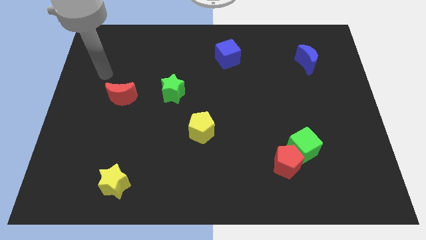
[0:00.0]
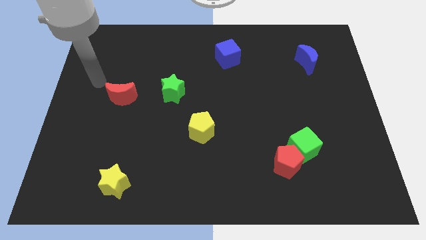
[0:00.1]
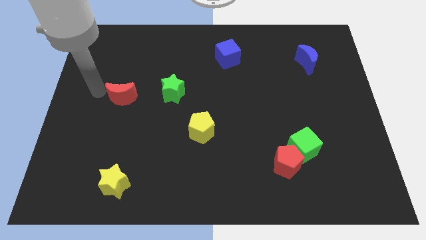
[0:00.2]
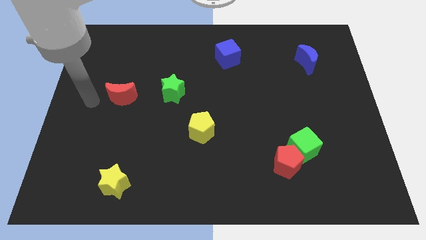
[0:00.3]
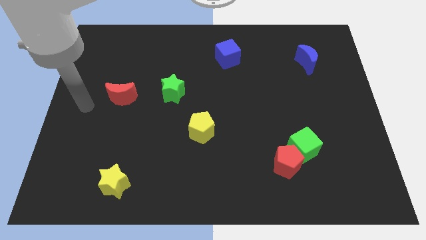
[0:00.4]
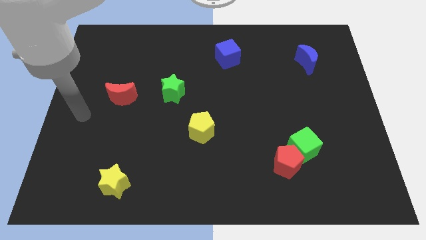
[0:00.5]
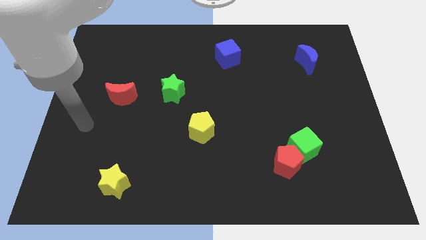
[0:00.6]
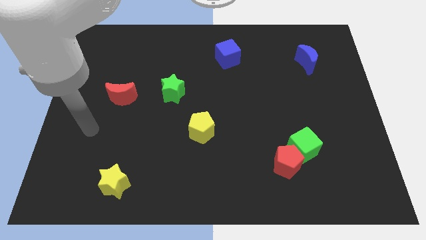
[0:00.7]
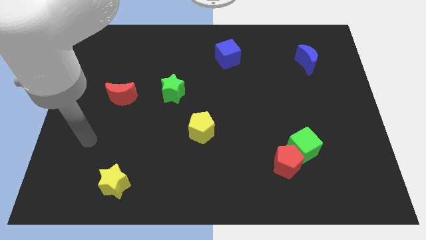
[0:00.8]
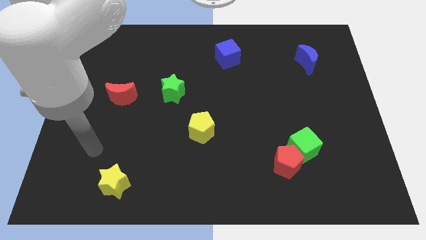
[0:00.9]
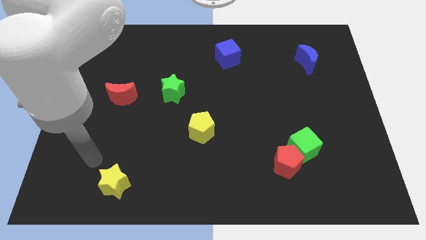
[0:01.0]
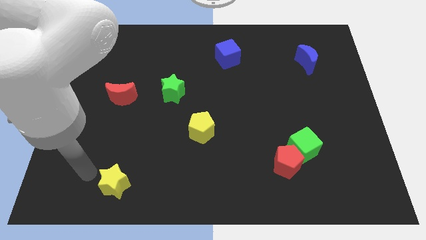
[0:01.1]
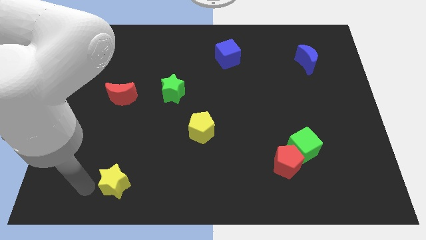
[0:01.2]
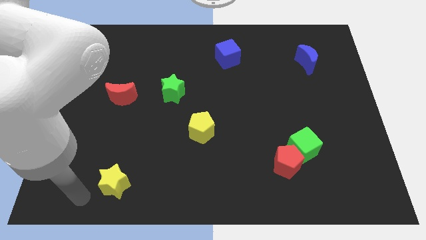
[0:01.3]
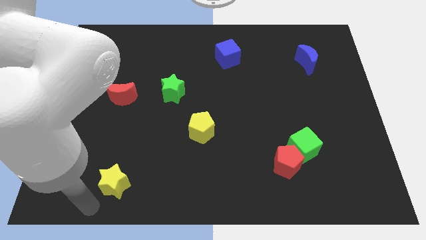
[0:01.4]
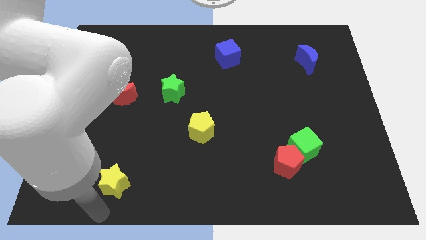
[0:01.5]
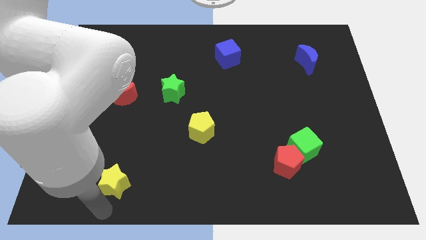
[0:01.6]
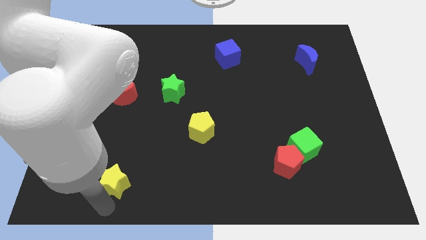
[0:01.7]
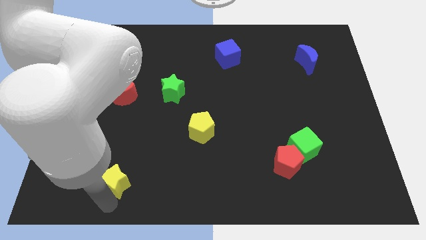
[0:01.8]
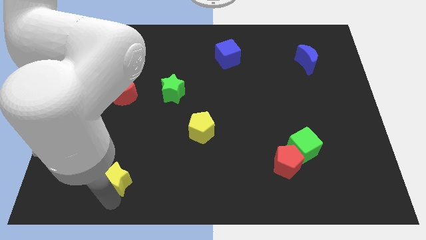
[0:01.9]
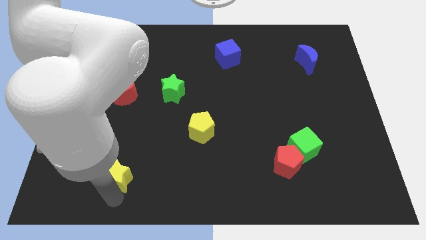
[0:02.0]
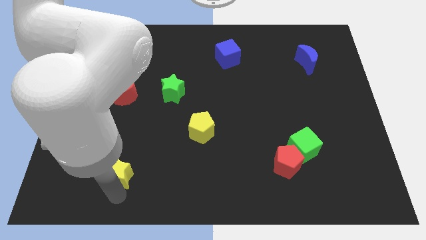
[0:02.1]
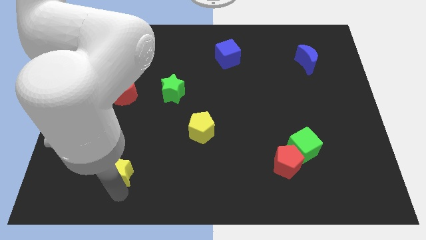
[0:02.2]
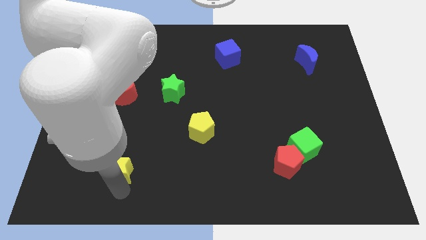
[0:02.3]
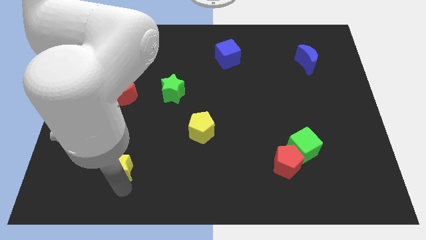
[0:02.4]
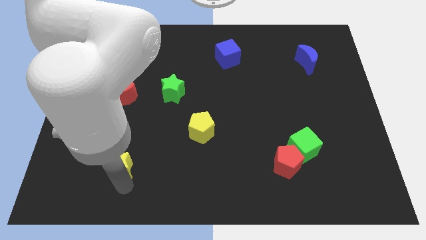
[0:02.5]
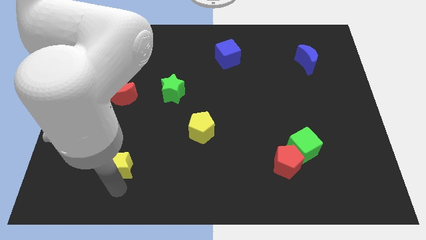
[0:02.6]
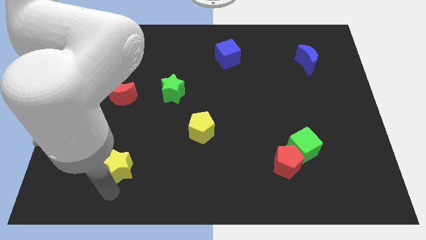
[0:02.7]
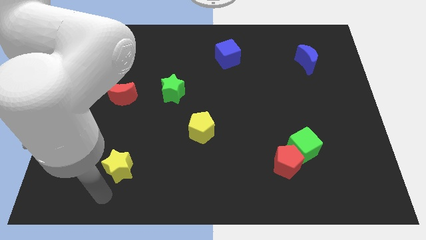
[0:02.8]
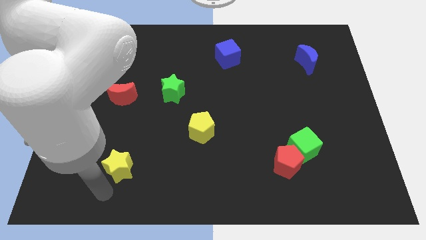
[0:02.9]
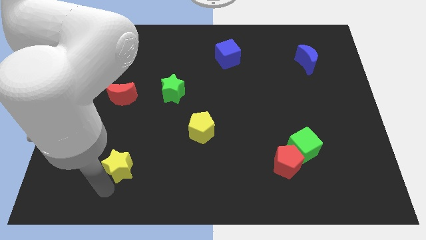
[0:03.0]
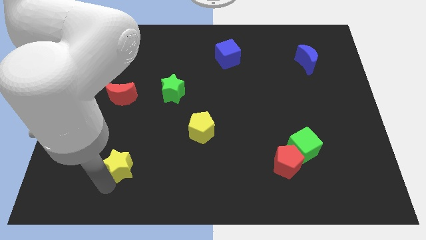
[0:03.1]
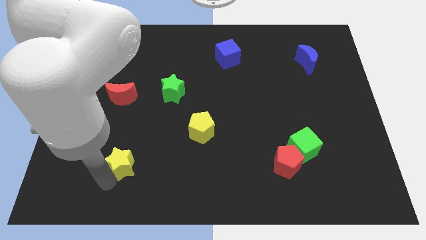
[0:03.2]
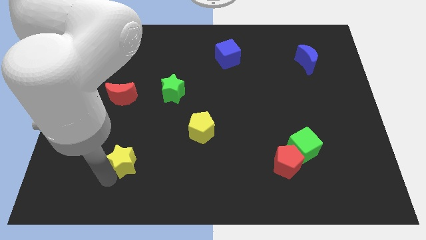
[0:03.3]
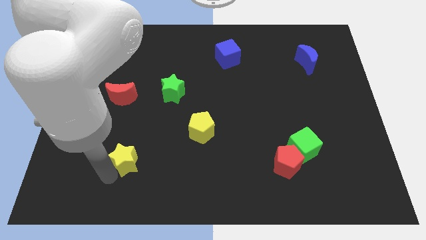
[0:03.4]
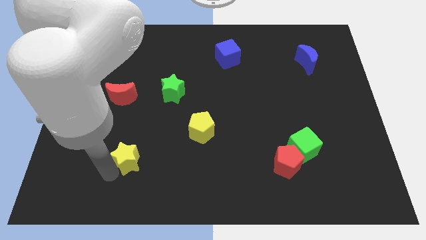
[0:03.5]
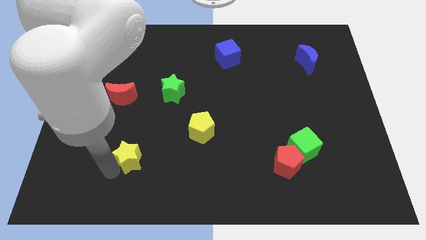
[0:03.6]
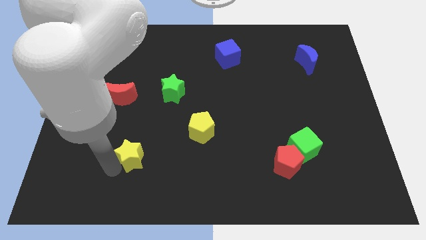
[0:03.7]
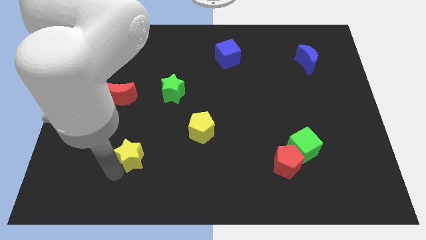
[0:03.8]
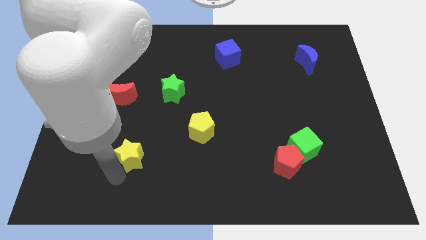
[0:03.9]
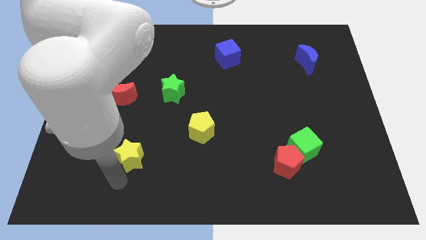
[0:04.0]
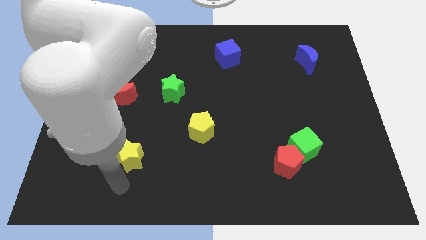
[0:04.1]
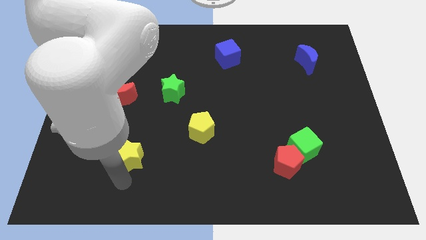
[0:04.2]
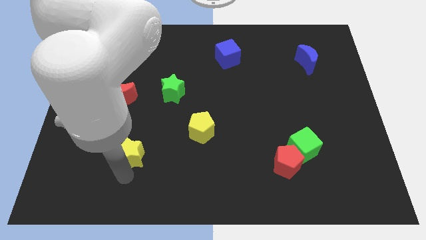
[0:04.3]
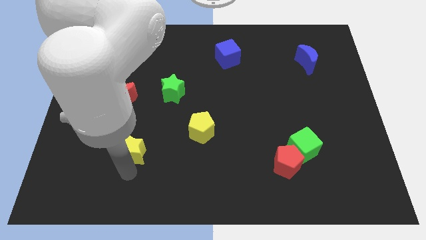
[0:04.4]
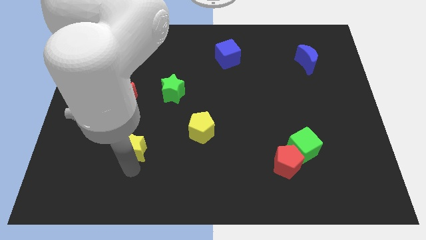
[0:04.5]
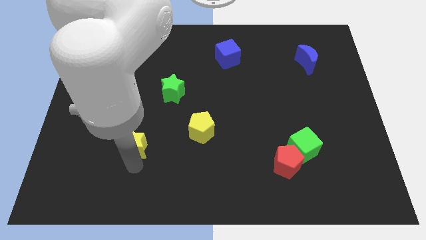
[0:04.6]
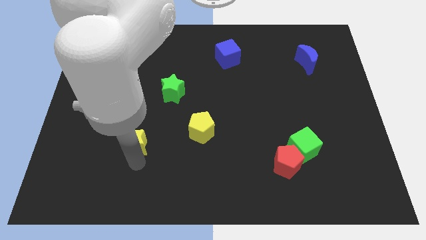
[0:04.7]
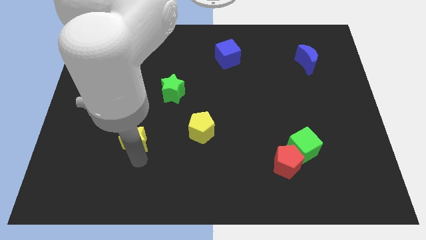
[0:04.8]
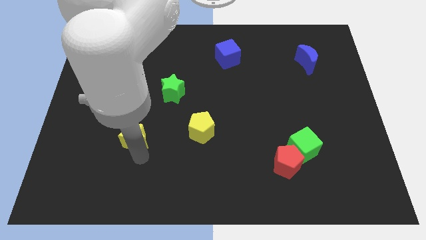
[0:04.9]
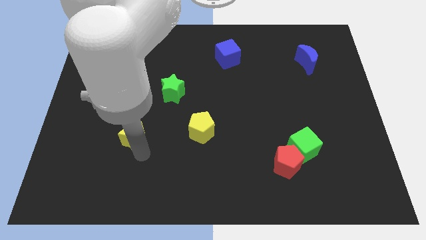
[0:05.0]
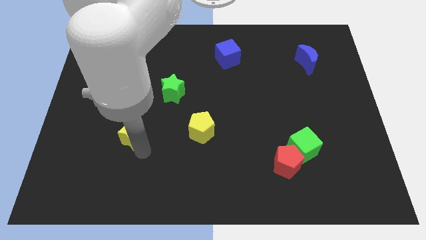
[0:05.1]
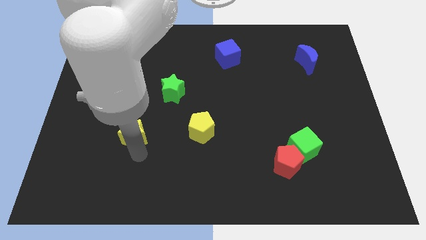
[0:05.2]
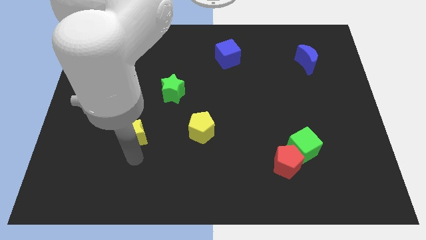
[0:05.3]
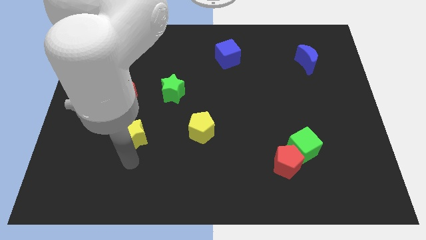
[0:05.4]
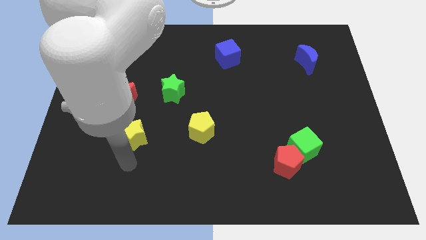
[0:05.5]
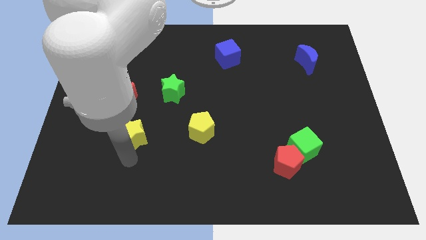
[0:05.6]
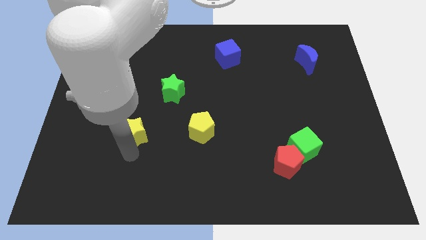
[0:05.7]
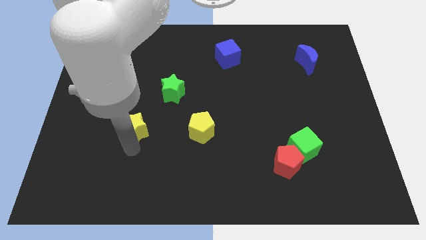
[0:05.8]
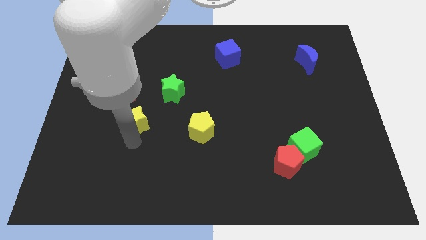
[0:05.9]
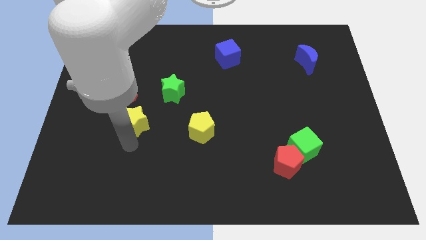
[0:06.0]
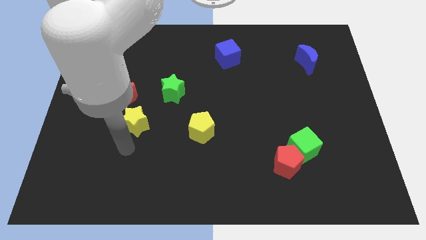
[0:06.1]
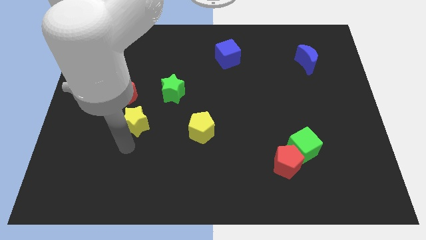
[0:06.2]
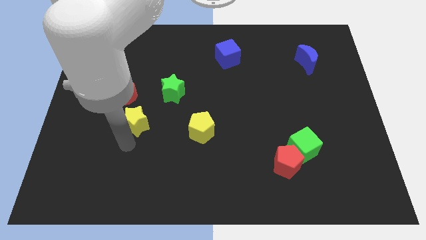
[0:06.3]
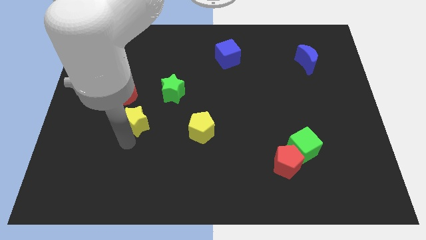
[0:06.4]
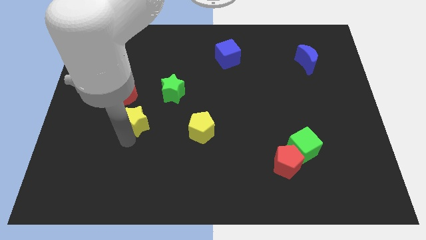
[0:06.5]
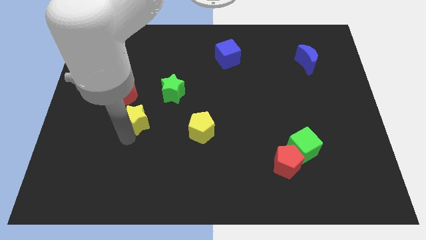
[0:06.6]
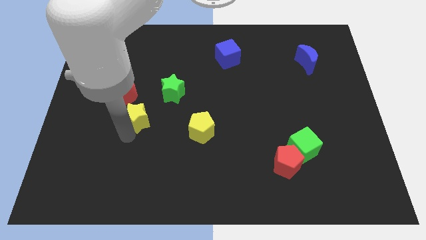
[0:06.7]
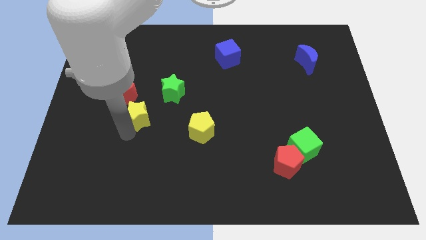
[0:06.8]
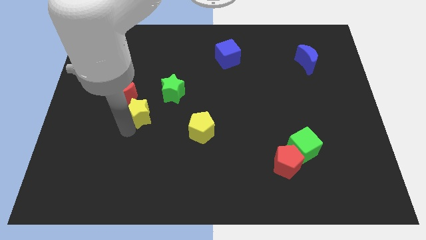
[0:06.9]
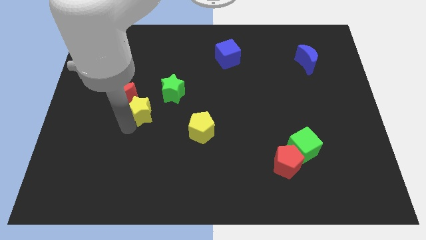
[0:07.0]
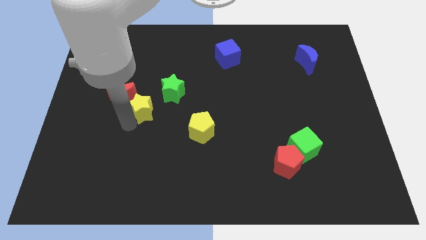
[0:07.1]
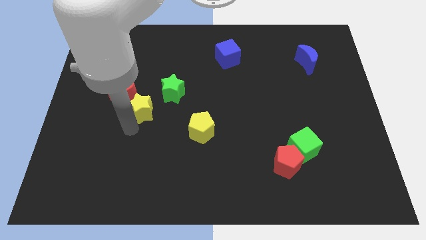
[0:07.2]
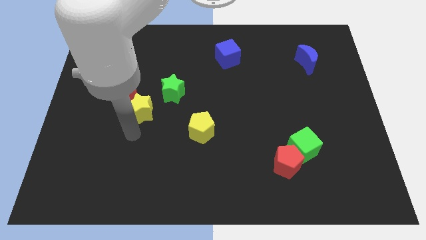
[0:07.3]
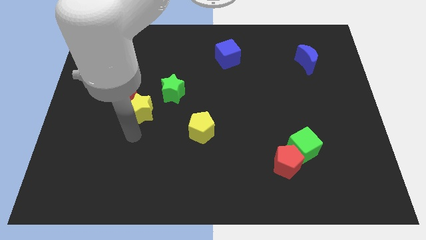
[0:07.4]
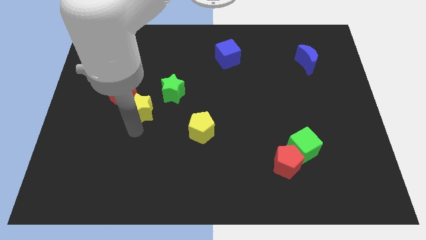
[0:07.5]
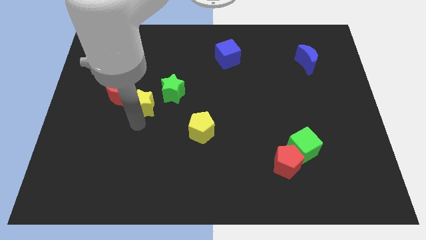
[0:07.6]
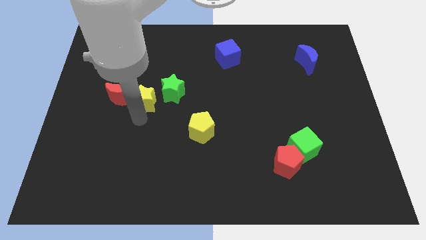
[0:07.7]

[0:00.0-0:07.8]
slide the yellow star upwards
